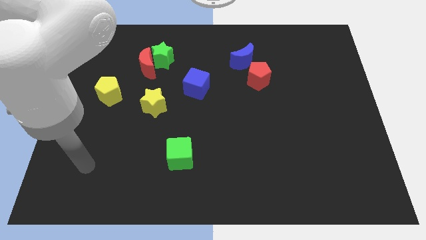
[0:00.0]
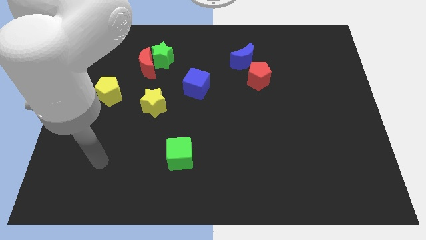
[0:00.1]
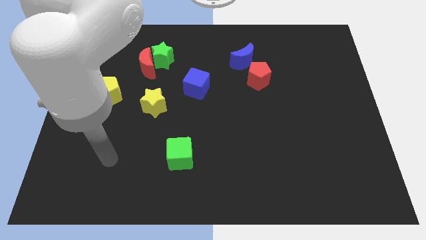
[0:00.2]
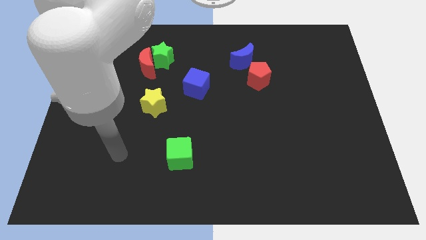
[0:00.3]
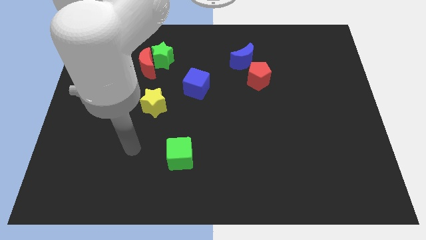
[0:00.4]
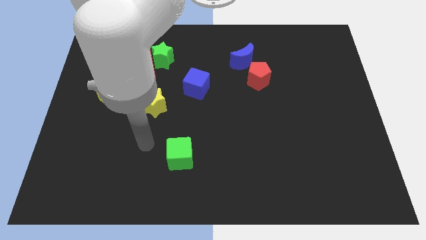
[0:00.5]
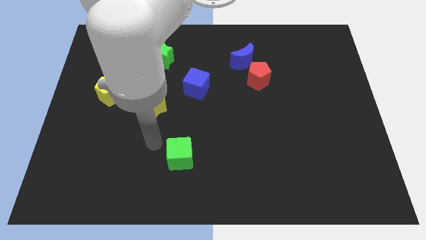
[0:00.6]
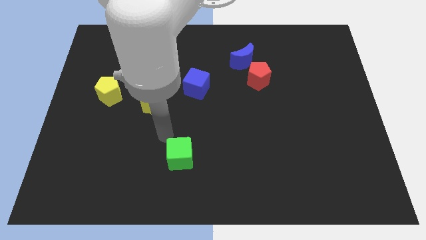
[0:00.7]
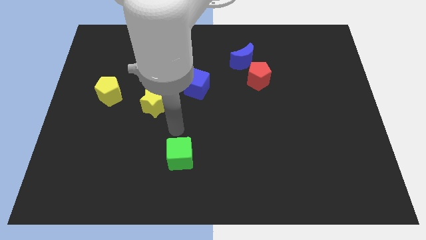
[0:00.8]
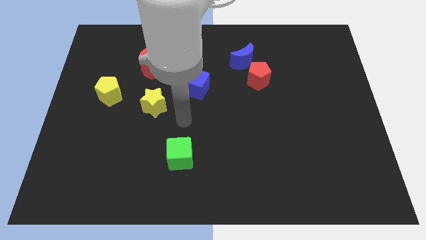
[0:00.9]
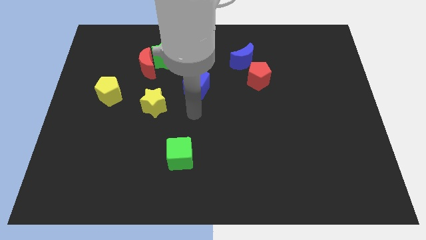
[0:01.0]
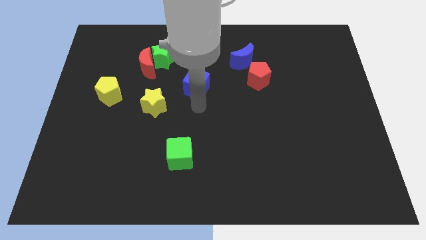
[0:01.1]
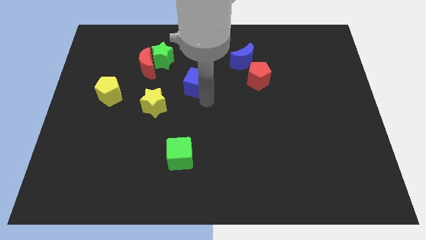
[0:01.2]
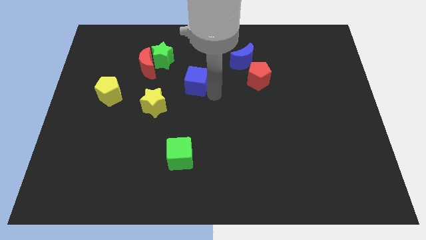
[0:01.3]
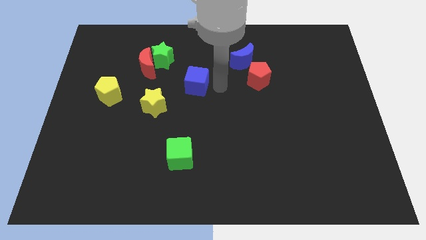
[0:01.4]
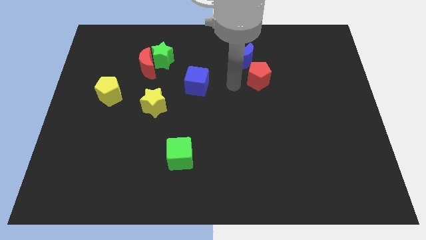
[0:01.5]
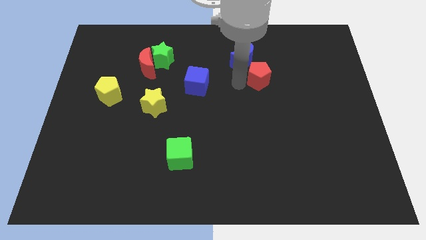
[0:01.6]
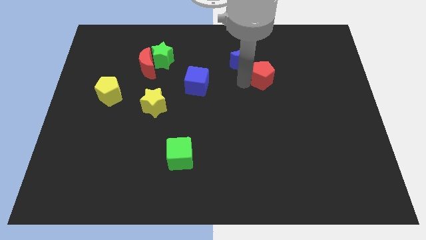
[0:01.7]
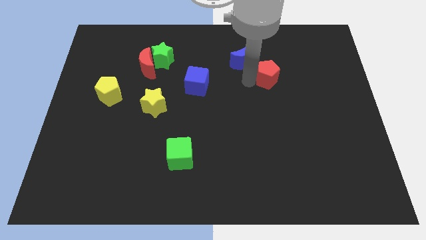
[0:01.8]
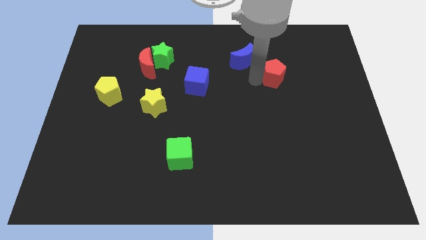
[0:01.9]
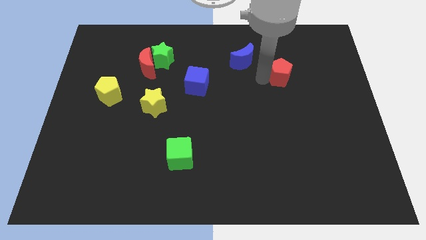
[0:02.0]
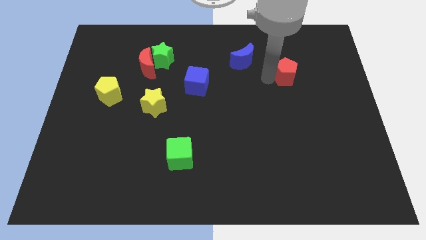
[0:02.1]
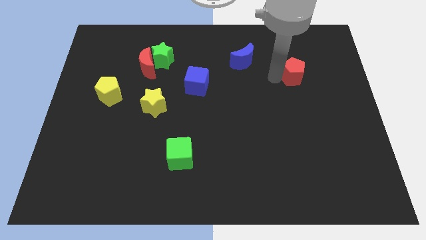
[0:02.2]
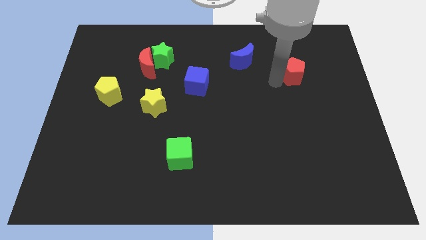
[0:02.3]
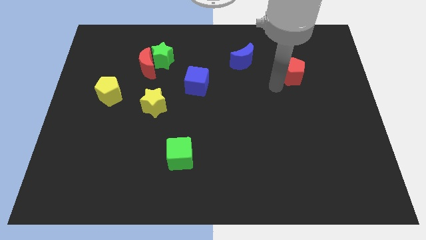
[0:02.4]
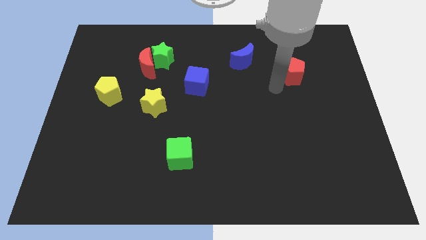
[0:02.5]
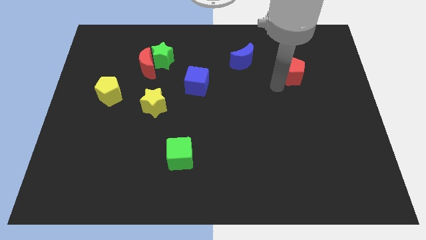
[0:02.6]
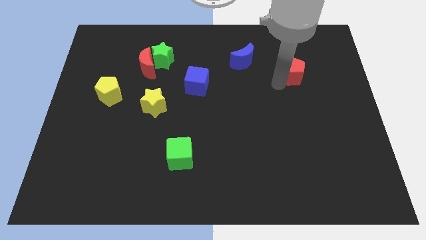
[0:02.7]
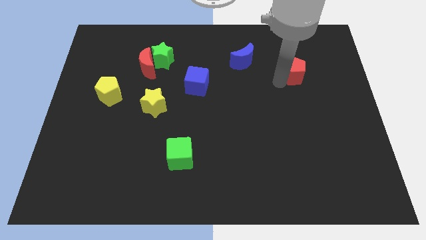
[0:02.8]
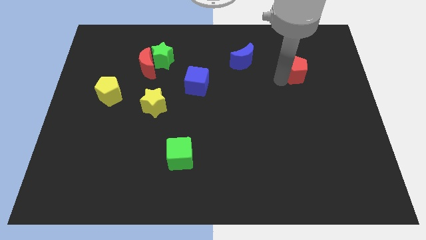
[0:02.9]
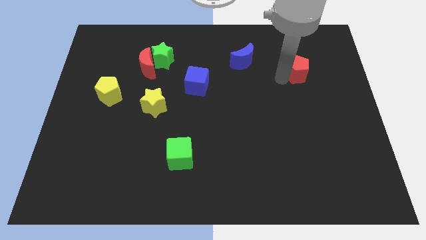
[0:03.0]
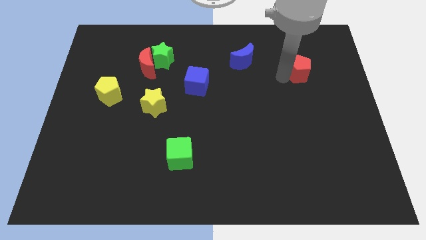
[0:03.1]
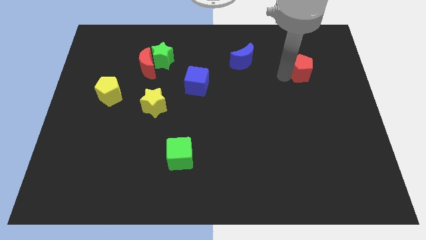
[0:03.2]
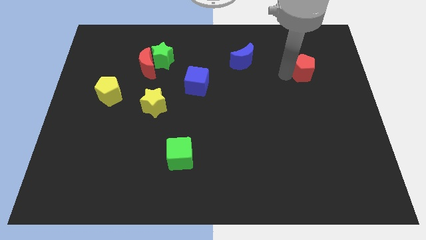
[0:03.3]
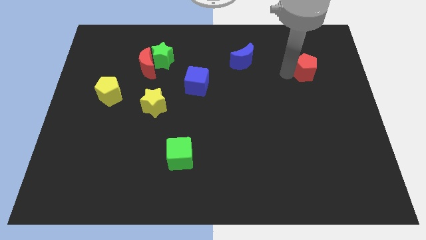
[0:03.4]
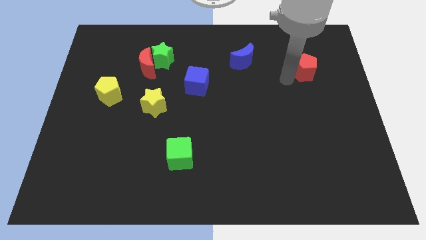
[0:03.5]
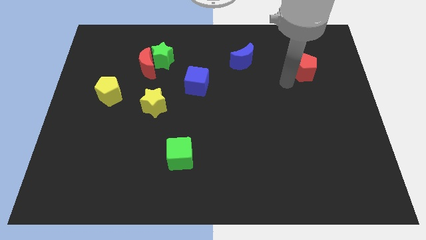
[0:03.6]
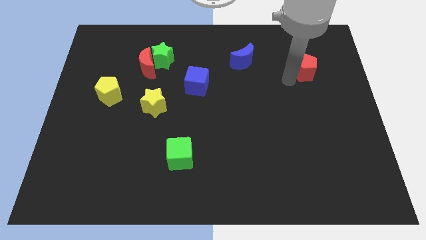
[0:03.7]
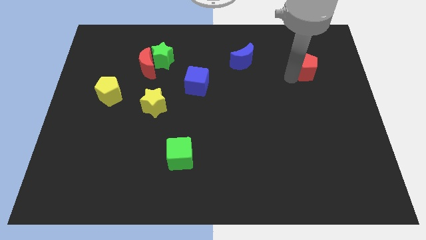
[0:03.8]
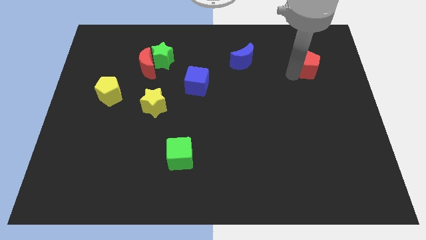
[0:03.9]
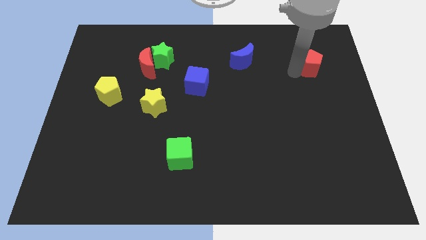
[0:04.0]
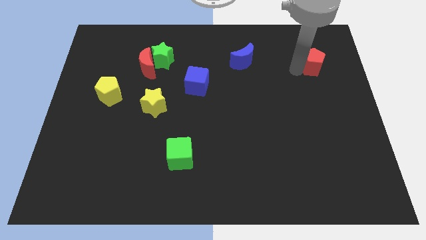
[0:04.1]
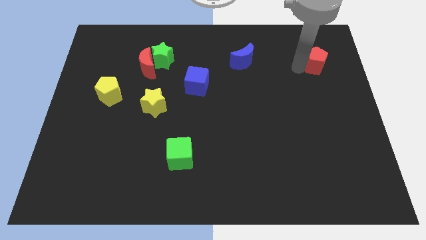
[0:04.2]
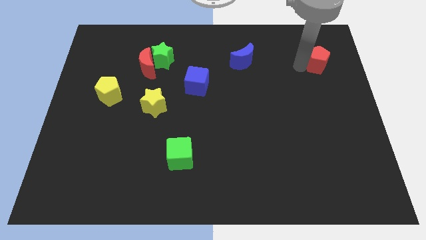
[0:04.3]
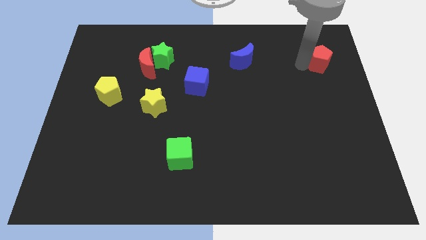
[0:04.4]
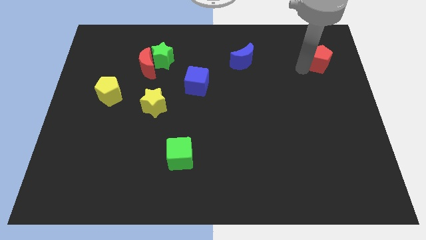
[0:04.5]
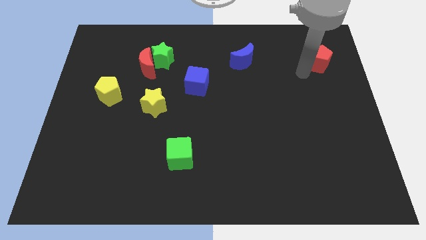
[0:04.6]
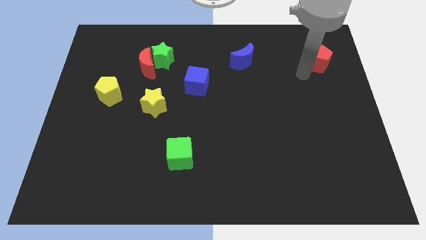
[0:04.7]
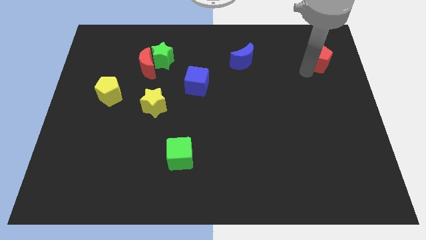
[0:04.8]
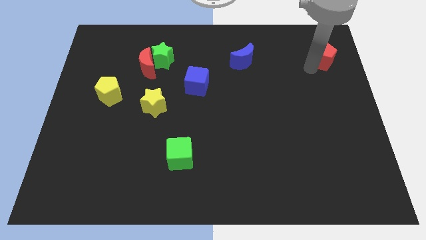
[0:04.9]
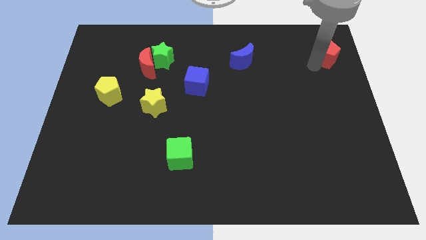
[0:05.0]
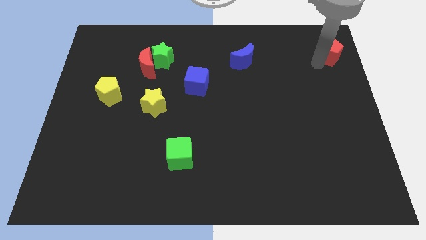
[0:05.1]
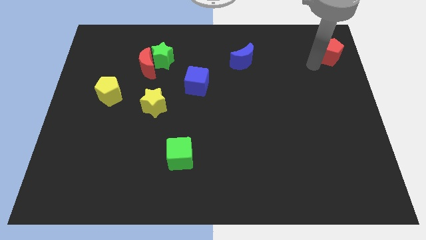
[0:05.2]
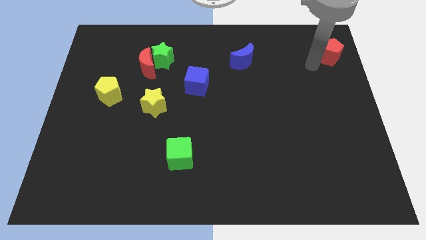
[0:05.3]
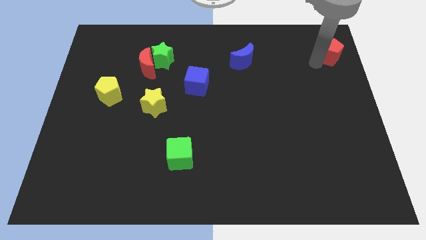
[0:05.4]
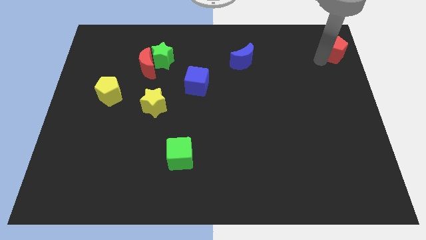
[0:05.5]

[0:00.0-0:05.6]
slide the red pentagon to the top right of the board

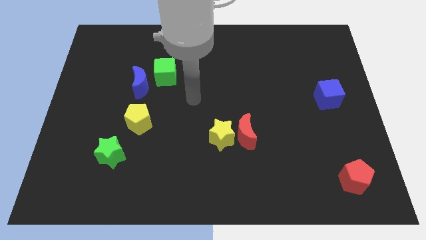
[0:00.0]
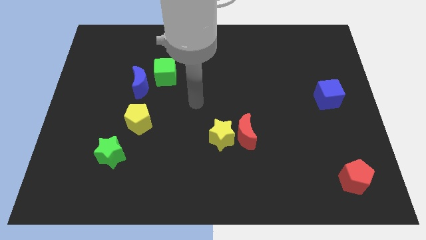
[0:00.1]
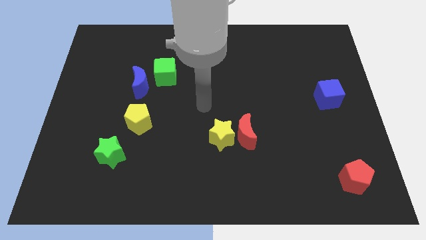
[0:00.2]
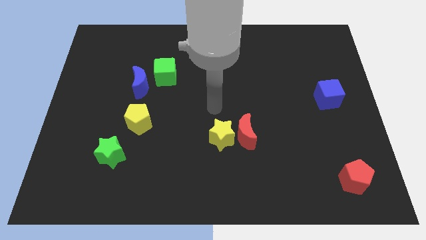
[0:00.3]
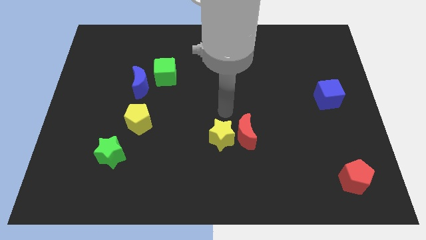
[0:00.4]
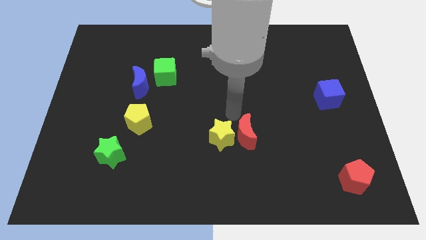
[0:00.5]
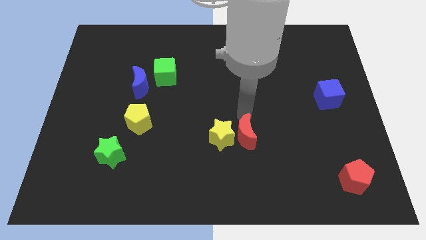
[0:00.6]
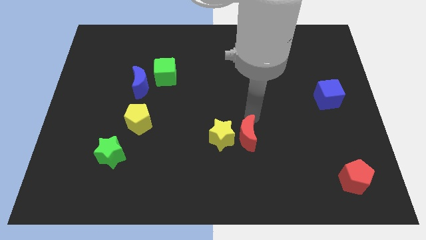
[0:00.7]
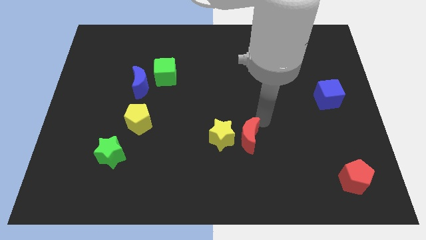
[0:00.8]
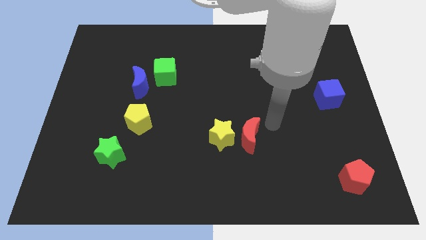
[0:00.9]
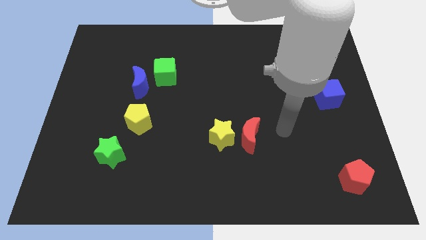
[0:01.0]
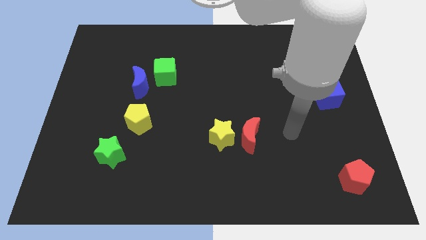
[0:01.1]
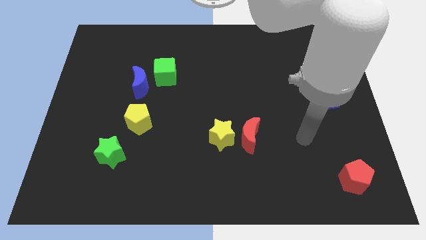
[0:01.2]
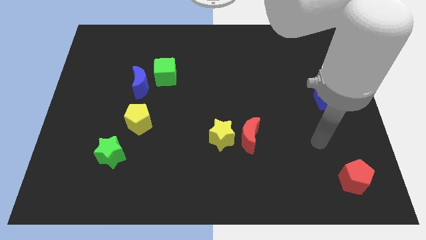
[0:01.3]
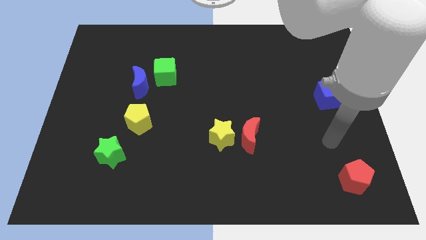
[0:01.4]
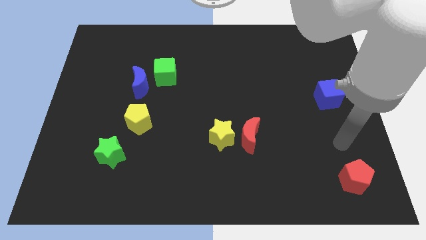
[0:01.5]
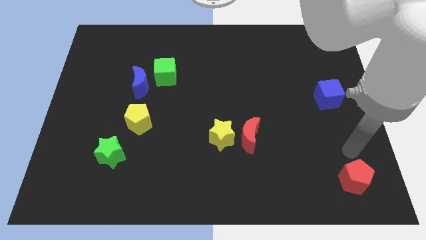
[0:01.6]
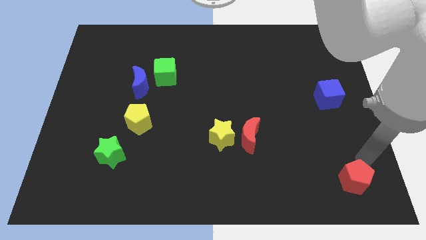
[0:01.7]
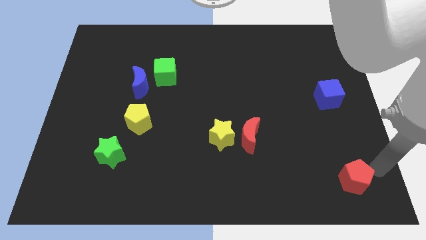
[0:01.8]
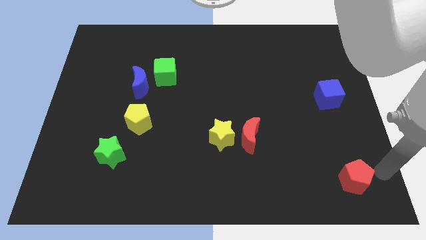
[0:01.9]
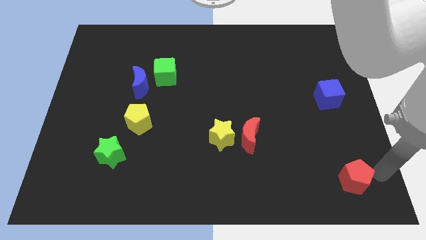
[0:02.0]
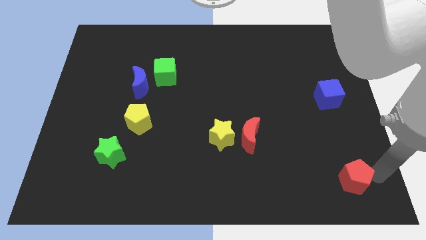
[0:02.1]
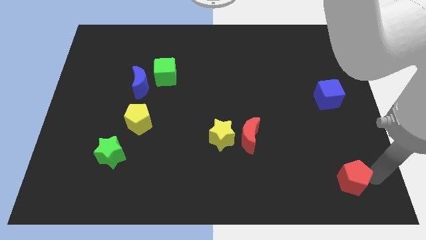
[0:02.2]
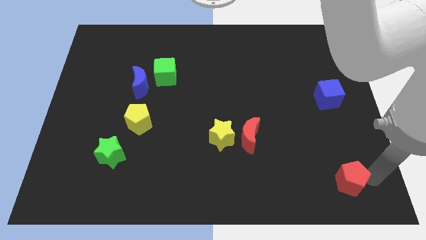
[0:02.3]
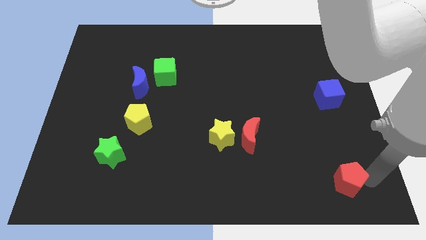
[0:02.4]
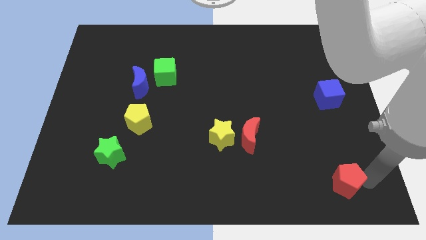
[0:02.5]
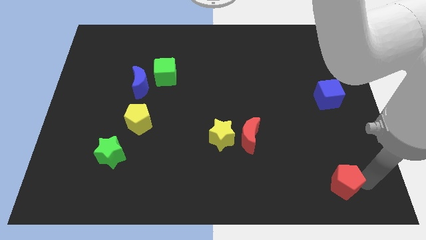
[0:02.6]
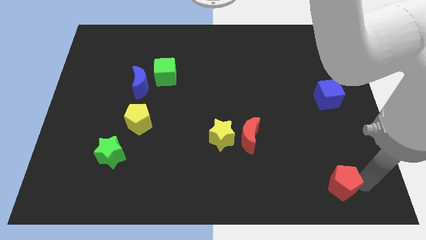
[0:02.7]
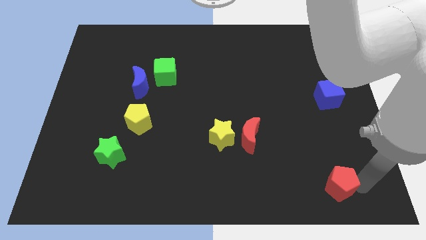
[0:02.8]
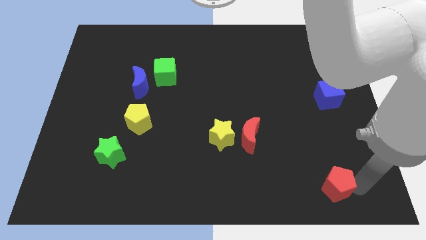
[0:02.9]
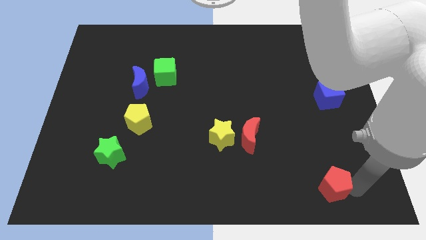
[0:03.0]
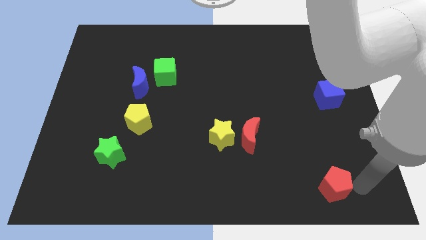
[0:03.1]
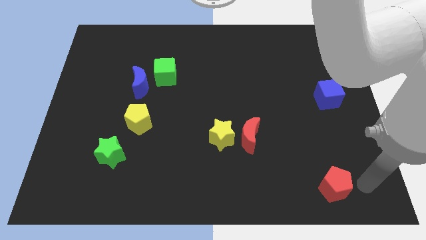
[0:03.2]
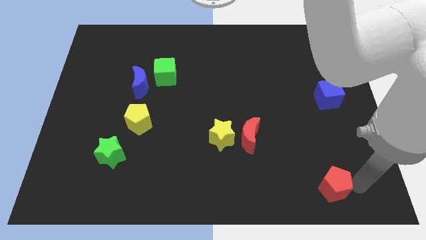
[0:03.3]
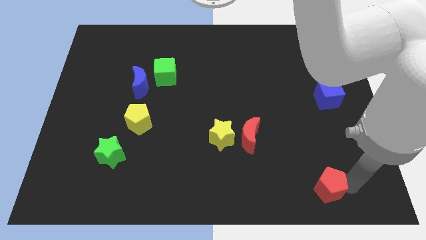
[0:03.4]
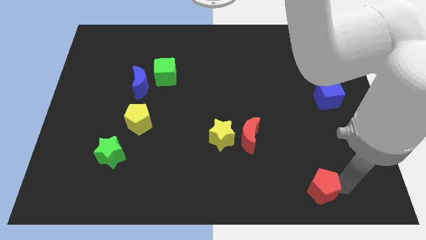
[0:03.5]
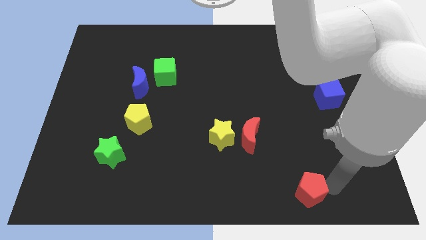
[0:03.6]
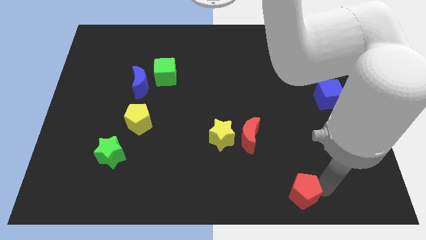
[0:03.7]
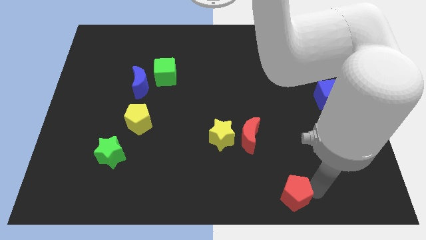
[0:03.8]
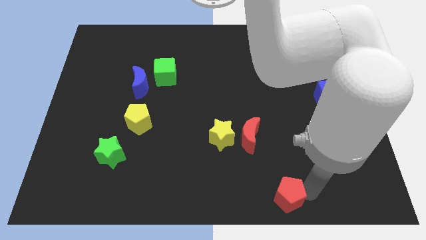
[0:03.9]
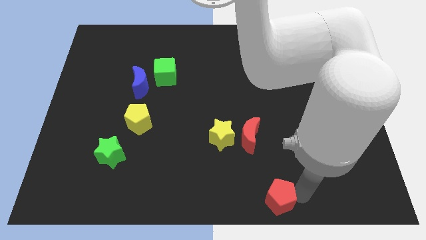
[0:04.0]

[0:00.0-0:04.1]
move the red pentagon to the bottom side
